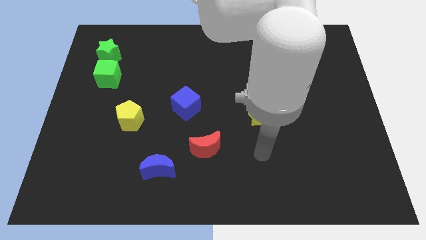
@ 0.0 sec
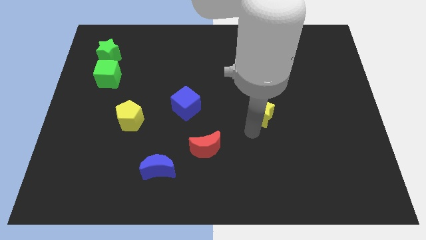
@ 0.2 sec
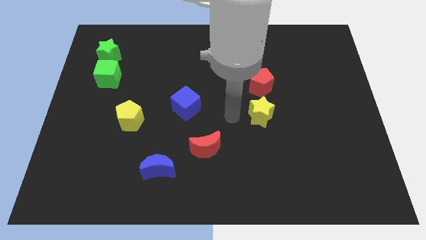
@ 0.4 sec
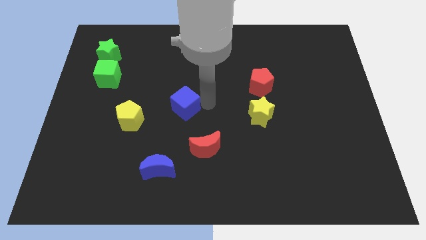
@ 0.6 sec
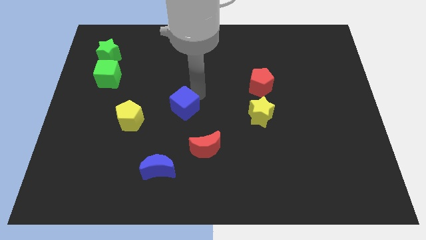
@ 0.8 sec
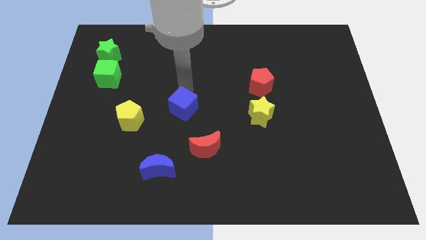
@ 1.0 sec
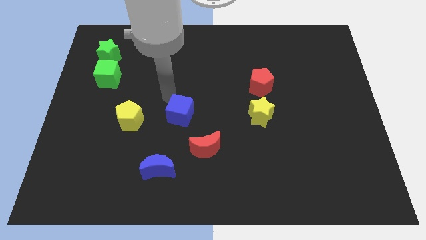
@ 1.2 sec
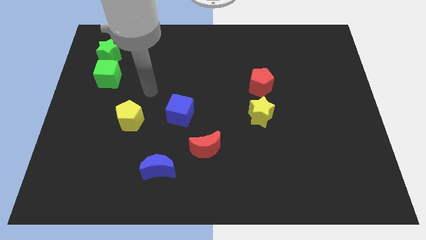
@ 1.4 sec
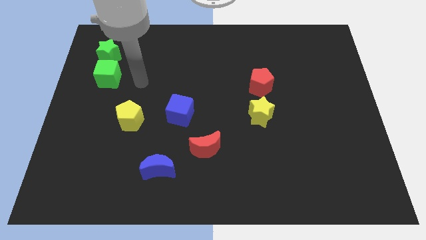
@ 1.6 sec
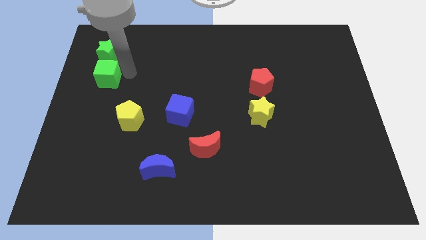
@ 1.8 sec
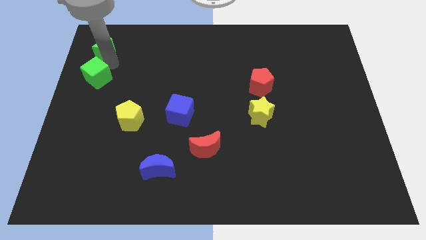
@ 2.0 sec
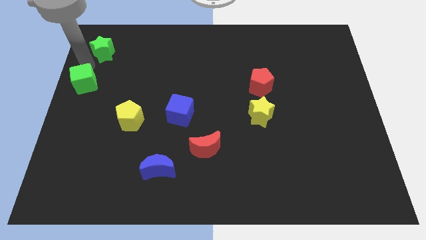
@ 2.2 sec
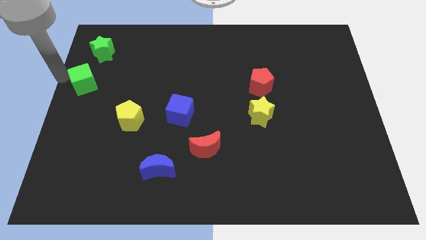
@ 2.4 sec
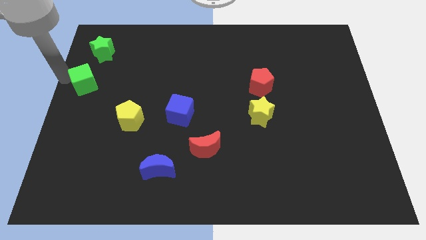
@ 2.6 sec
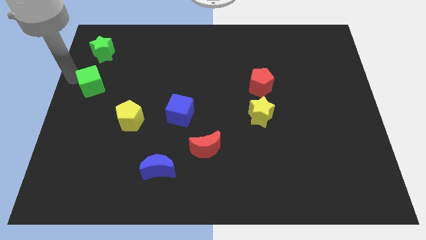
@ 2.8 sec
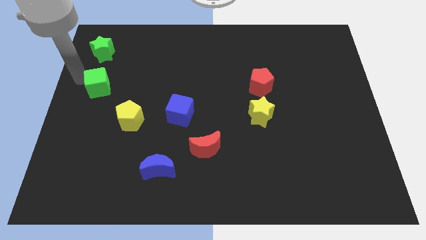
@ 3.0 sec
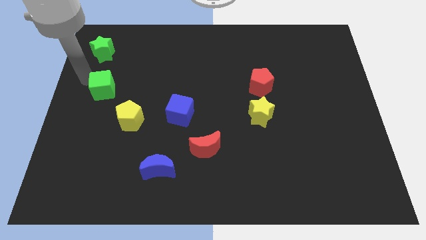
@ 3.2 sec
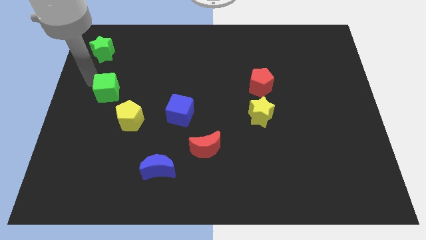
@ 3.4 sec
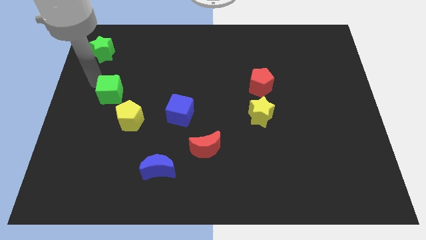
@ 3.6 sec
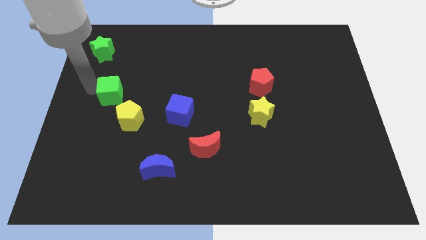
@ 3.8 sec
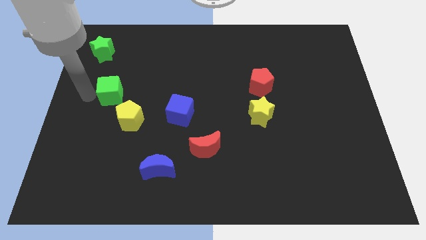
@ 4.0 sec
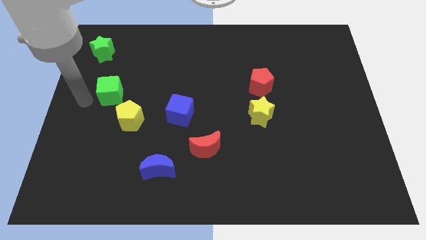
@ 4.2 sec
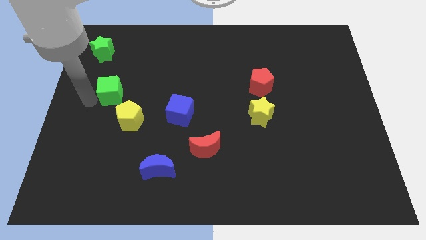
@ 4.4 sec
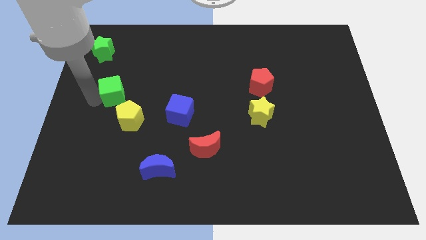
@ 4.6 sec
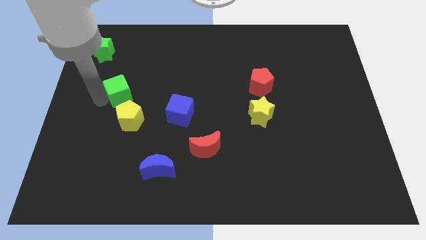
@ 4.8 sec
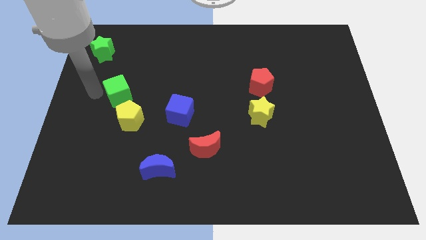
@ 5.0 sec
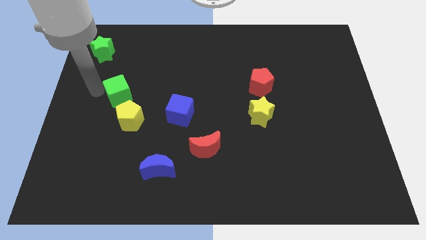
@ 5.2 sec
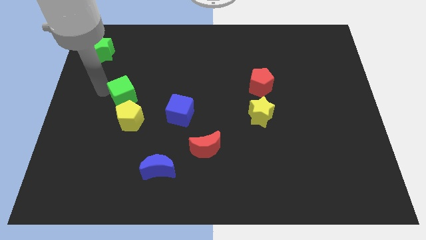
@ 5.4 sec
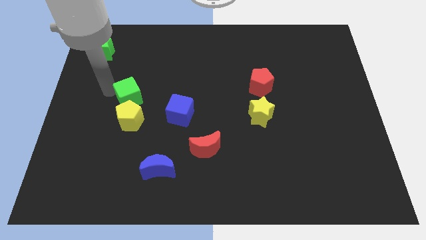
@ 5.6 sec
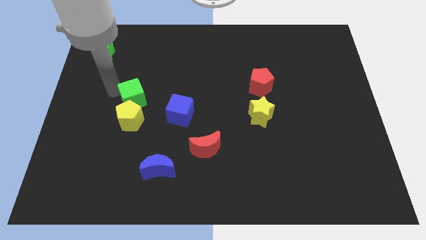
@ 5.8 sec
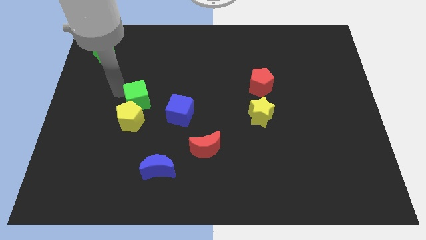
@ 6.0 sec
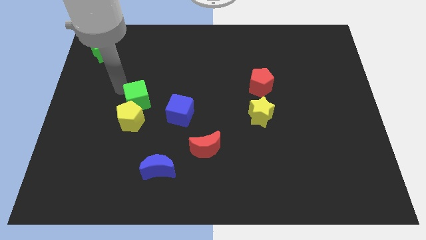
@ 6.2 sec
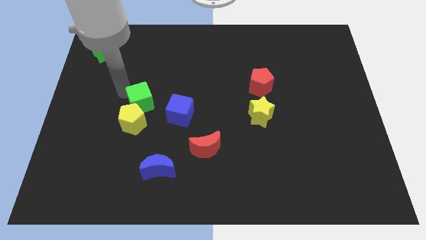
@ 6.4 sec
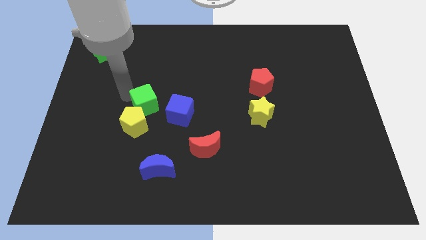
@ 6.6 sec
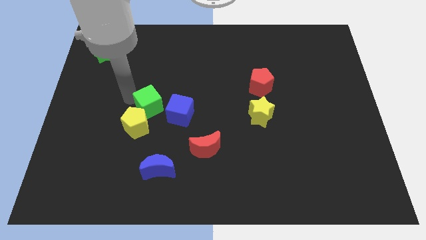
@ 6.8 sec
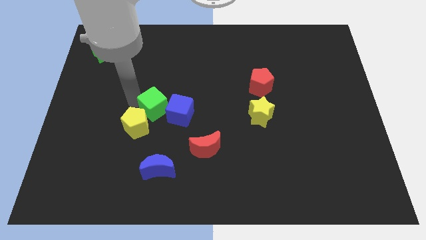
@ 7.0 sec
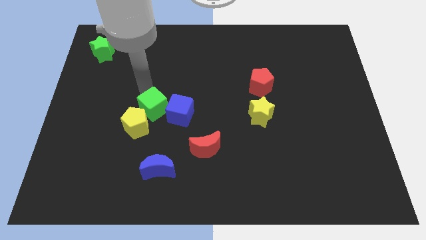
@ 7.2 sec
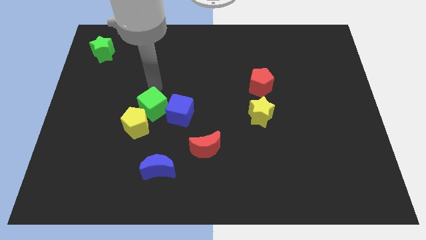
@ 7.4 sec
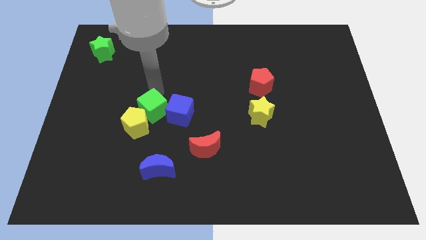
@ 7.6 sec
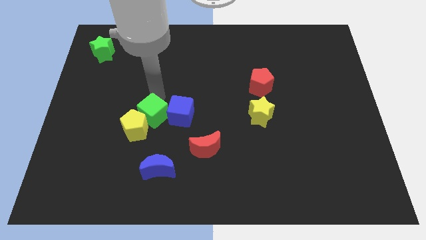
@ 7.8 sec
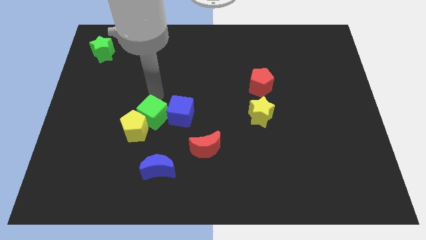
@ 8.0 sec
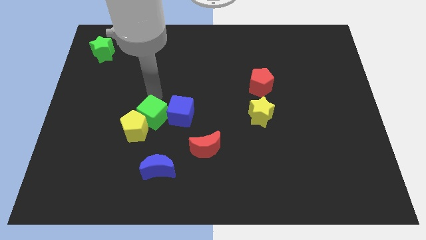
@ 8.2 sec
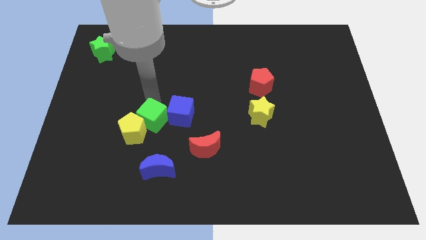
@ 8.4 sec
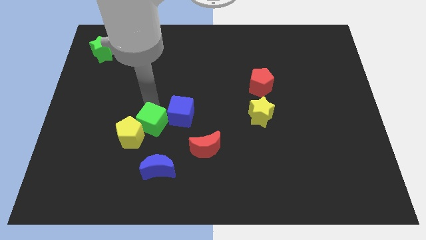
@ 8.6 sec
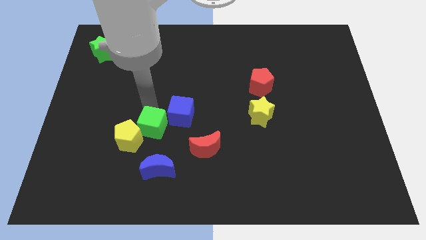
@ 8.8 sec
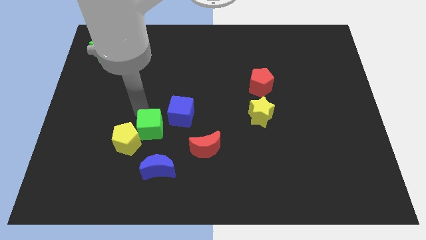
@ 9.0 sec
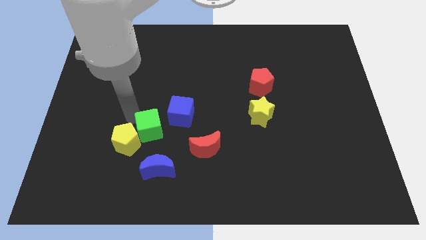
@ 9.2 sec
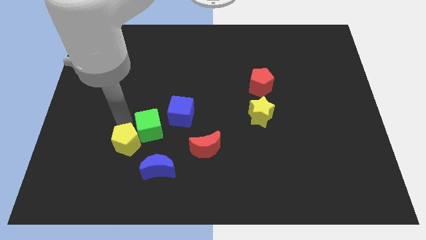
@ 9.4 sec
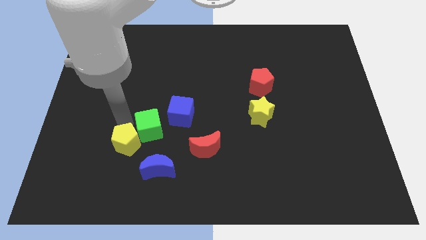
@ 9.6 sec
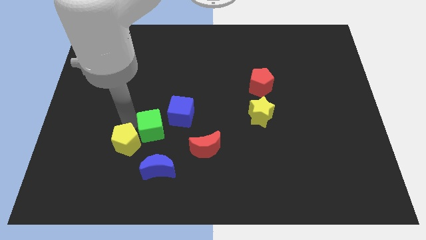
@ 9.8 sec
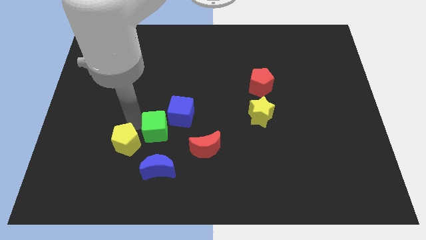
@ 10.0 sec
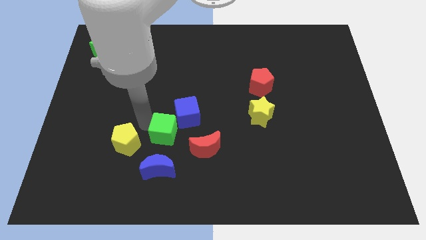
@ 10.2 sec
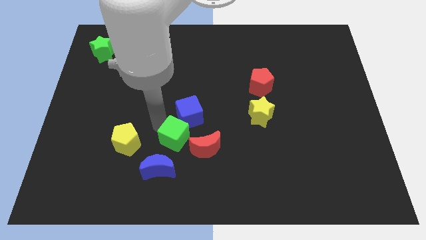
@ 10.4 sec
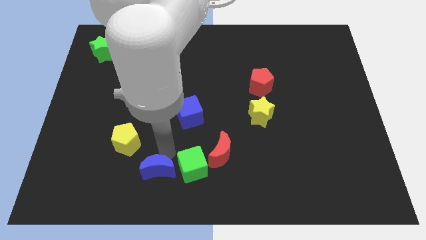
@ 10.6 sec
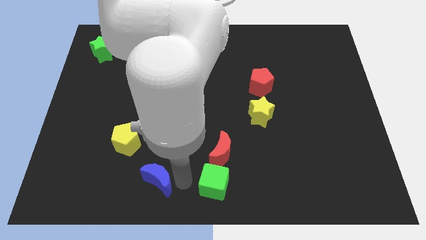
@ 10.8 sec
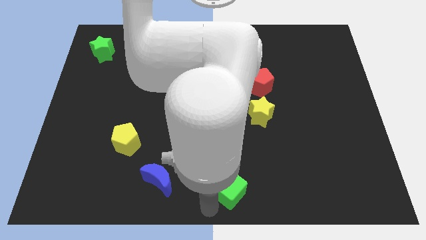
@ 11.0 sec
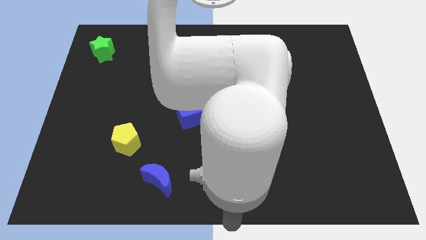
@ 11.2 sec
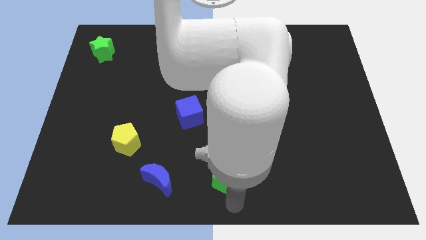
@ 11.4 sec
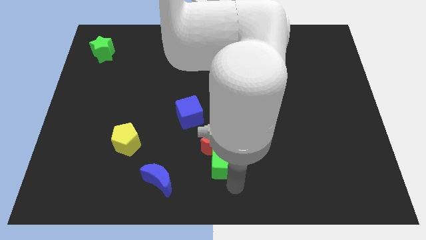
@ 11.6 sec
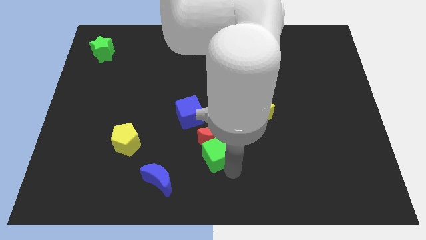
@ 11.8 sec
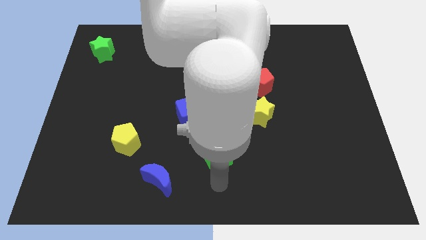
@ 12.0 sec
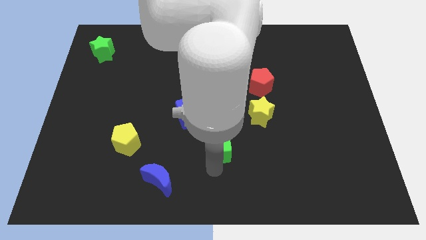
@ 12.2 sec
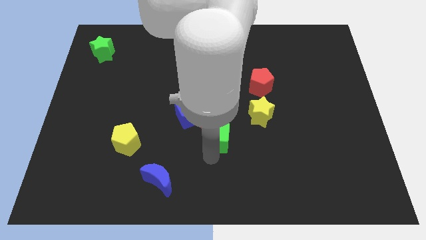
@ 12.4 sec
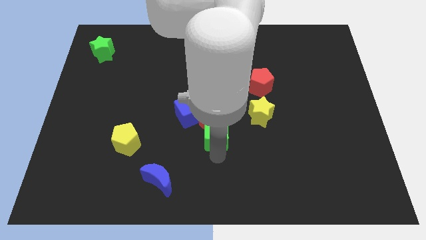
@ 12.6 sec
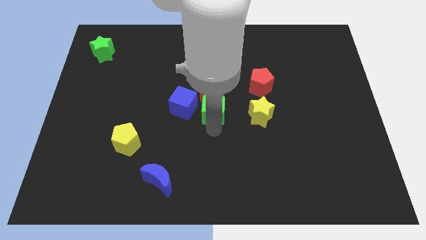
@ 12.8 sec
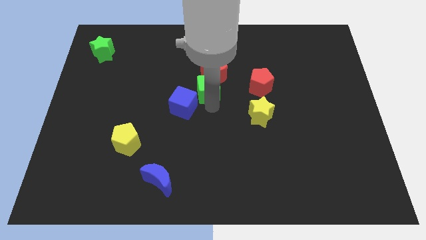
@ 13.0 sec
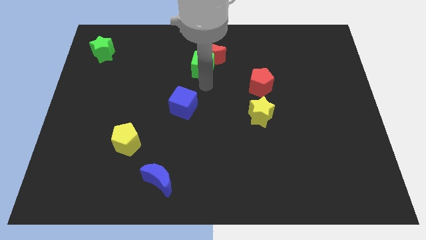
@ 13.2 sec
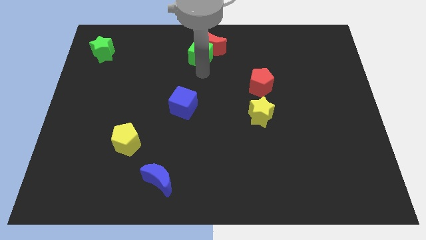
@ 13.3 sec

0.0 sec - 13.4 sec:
slide the green cube to the top
